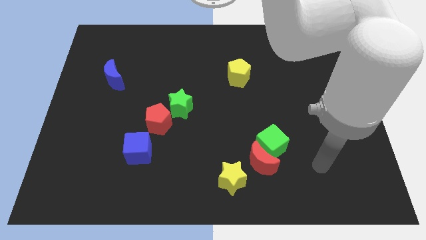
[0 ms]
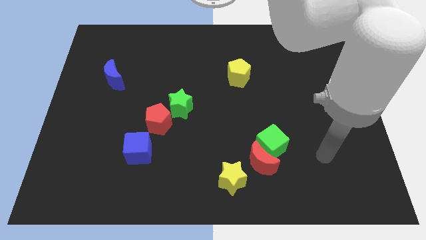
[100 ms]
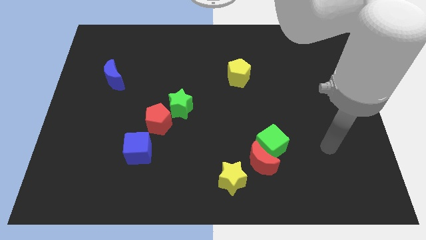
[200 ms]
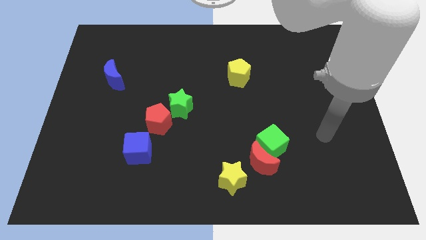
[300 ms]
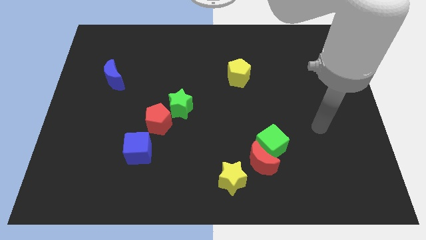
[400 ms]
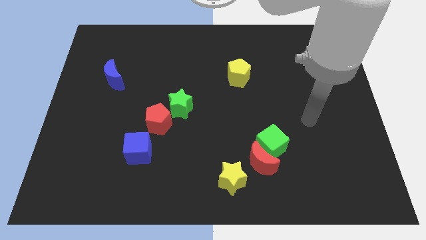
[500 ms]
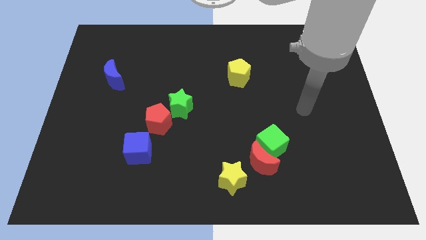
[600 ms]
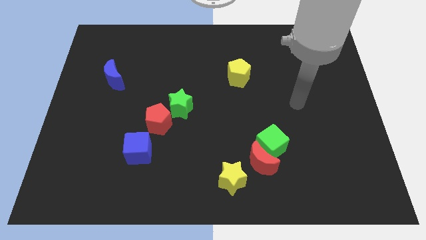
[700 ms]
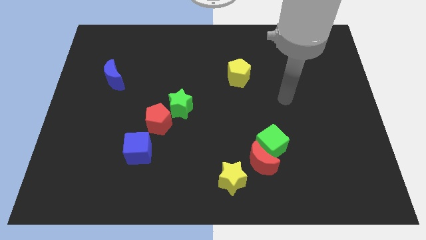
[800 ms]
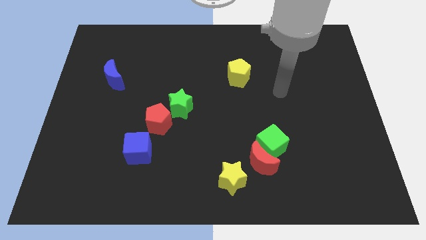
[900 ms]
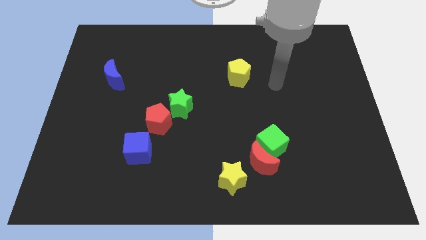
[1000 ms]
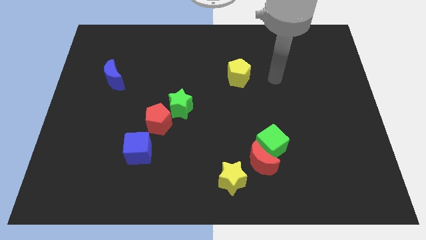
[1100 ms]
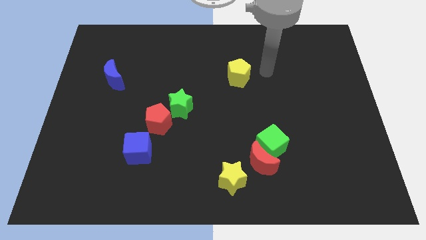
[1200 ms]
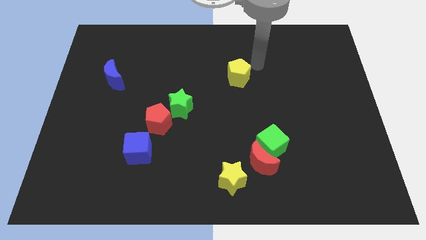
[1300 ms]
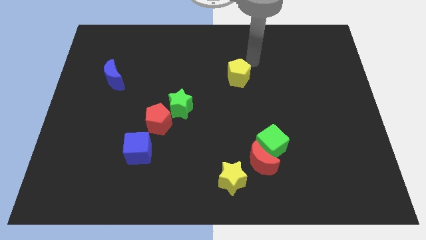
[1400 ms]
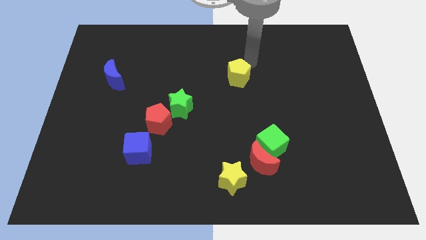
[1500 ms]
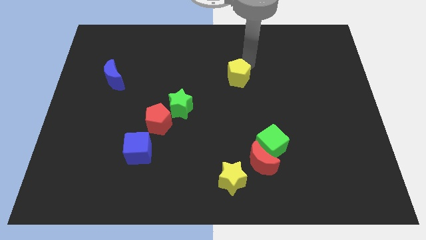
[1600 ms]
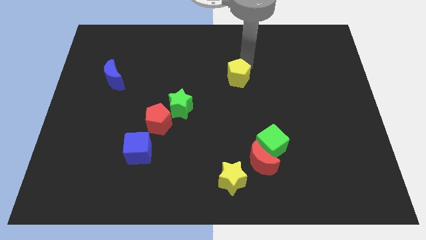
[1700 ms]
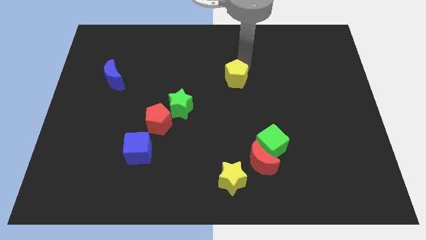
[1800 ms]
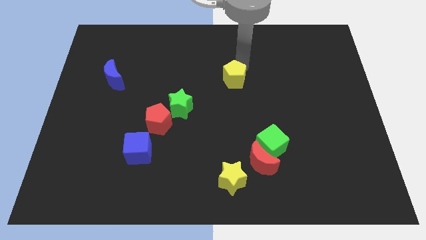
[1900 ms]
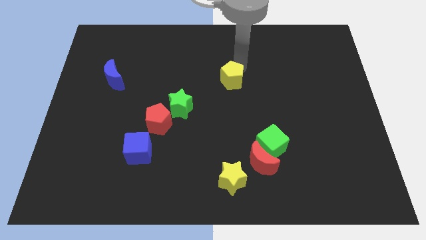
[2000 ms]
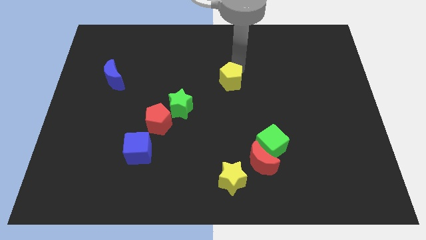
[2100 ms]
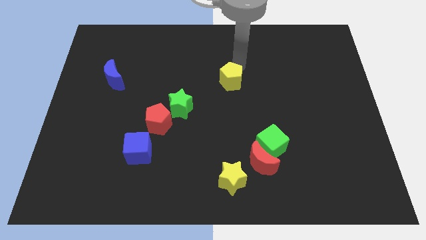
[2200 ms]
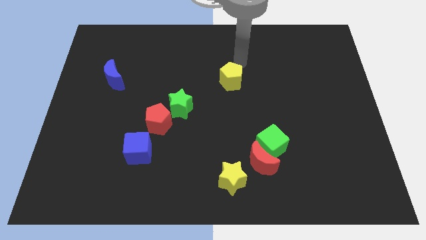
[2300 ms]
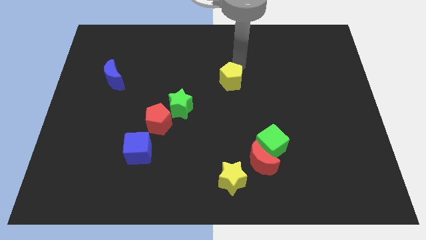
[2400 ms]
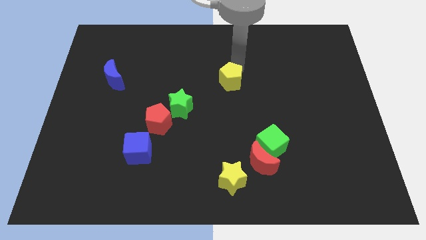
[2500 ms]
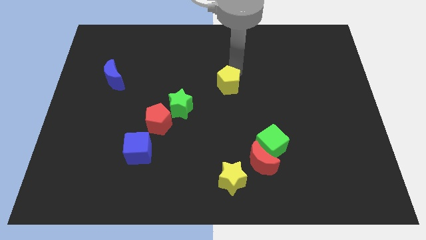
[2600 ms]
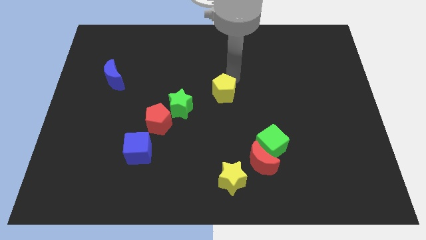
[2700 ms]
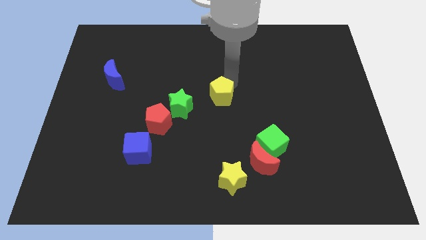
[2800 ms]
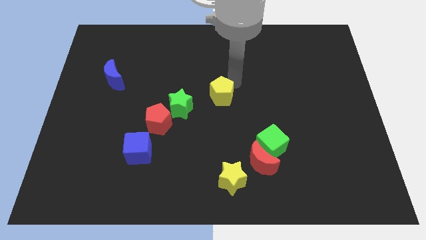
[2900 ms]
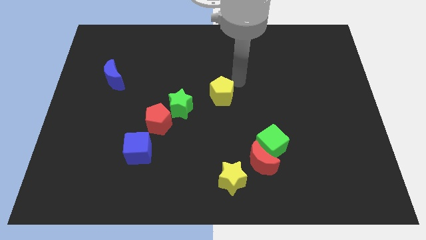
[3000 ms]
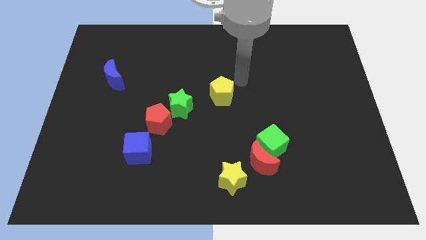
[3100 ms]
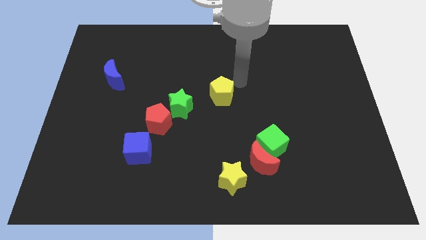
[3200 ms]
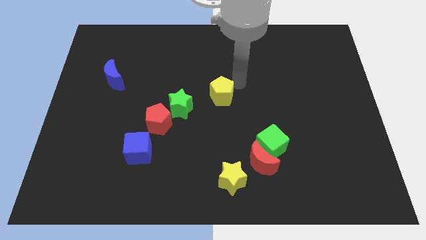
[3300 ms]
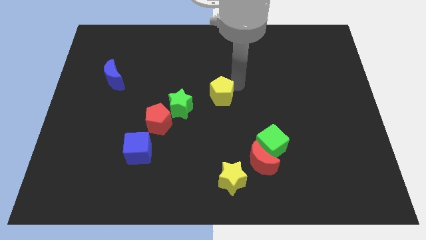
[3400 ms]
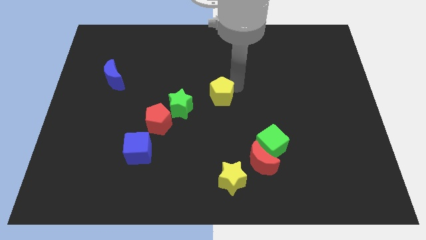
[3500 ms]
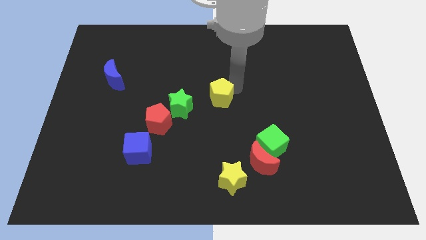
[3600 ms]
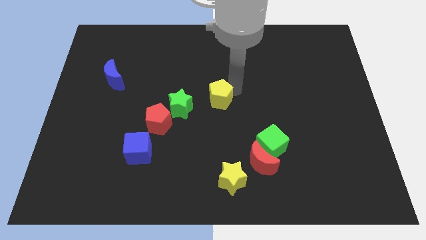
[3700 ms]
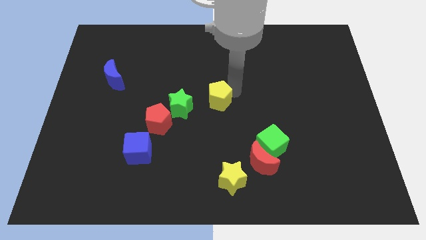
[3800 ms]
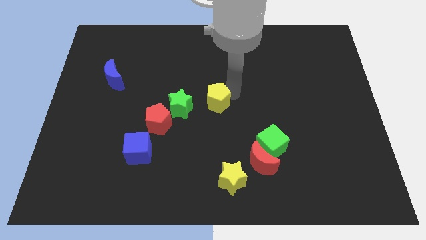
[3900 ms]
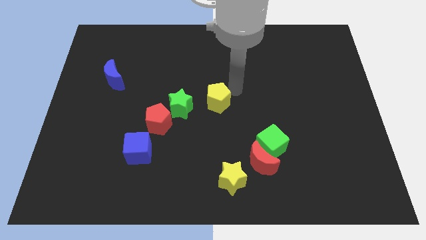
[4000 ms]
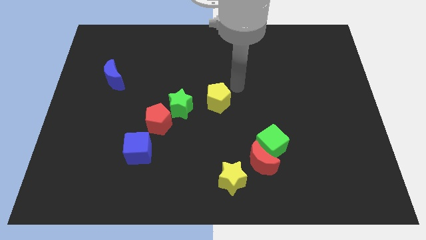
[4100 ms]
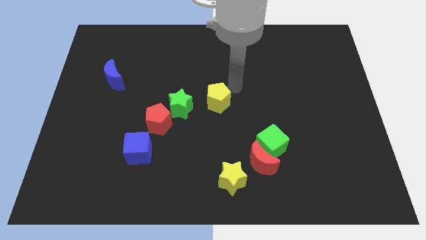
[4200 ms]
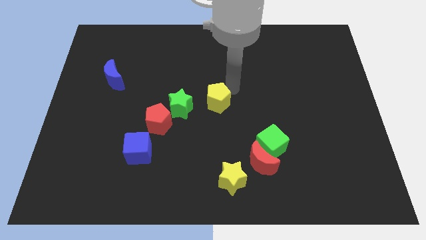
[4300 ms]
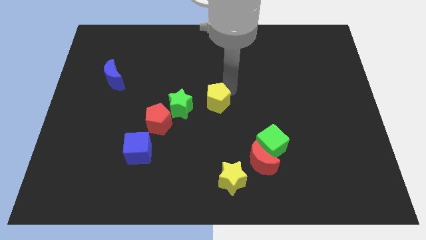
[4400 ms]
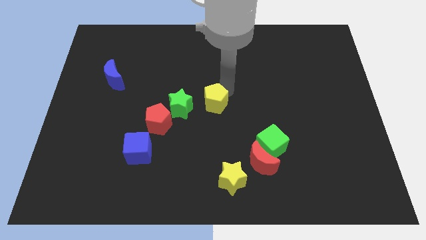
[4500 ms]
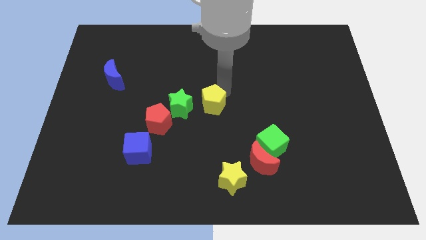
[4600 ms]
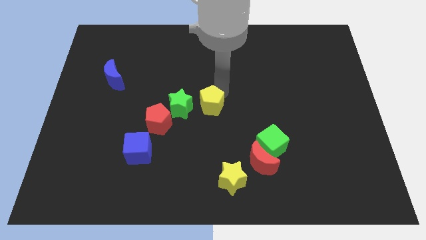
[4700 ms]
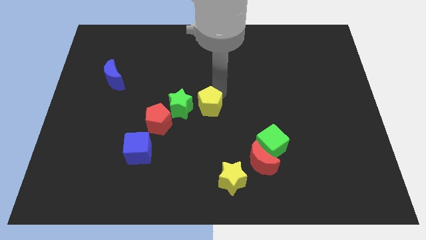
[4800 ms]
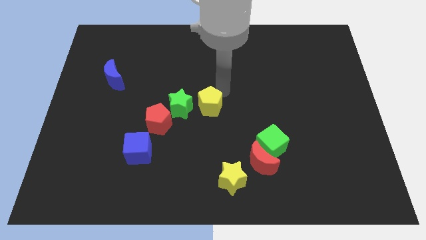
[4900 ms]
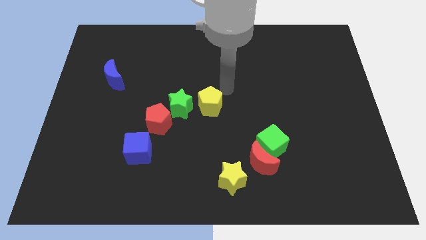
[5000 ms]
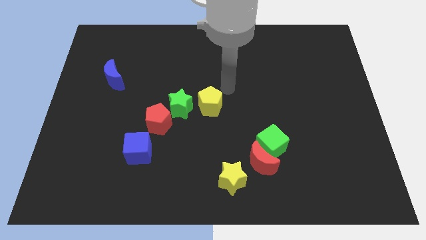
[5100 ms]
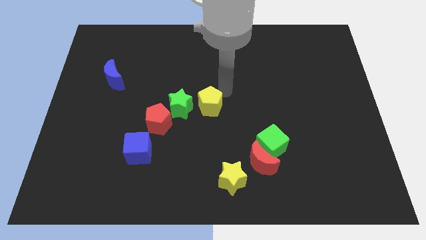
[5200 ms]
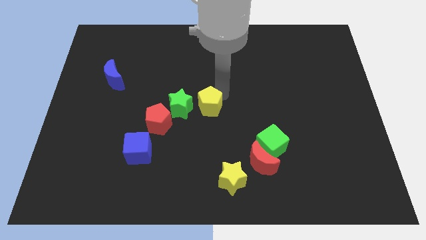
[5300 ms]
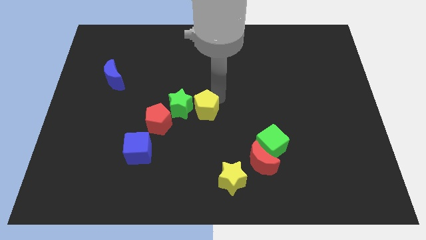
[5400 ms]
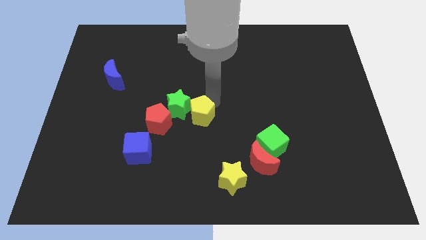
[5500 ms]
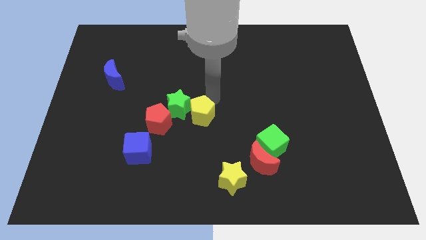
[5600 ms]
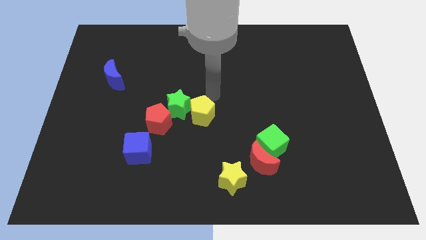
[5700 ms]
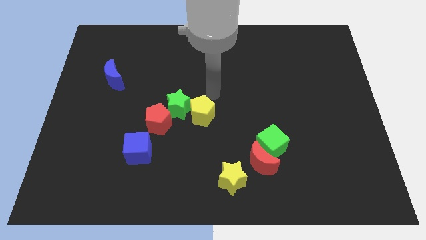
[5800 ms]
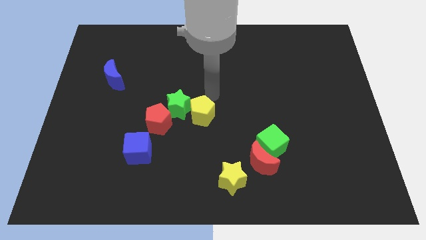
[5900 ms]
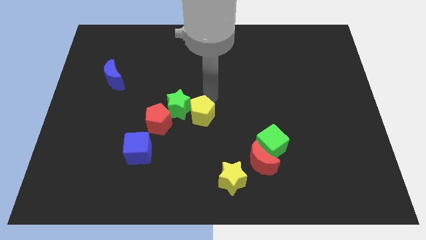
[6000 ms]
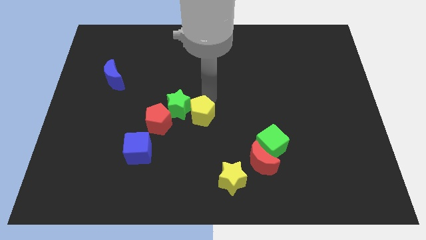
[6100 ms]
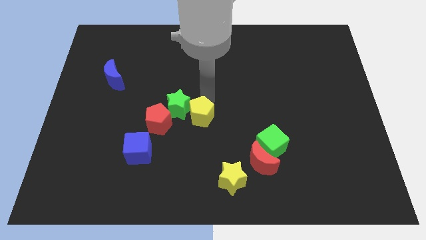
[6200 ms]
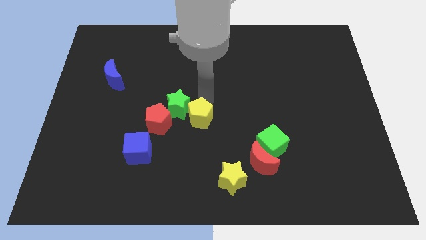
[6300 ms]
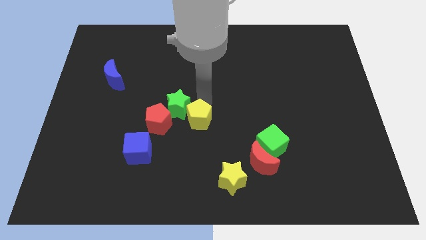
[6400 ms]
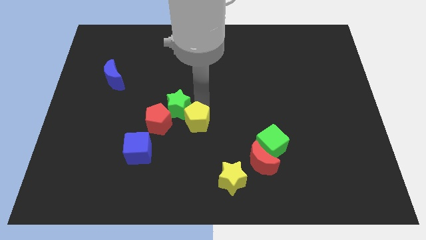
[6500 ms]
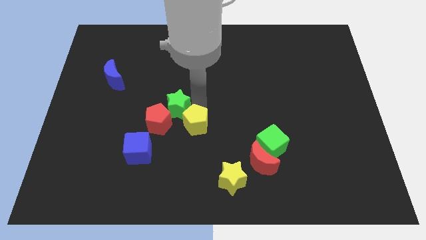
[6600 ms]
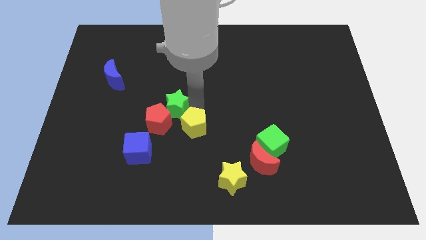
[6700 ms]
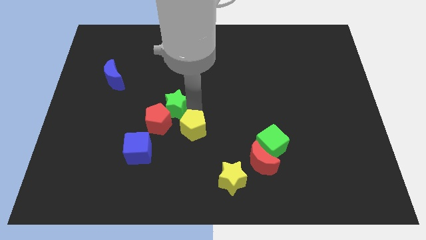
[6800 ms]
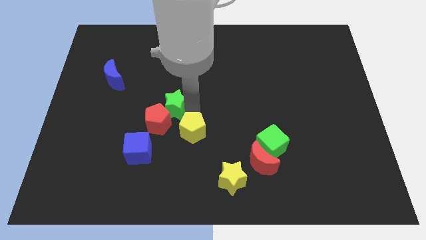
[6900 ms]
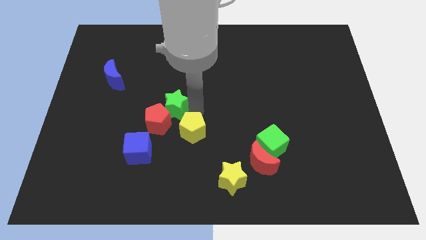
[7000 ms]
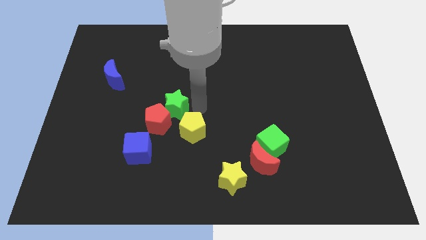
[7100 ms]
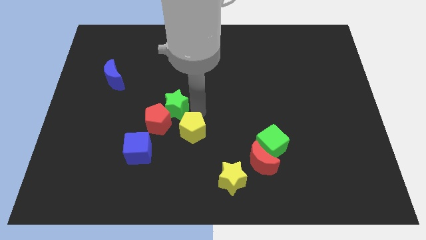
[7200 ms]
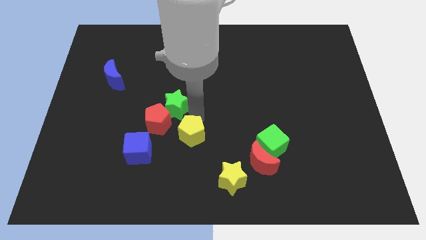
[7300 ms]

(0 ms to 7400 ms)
slide the yellow pentagon just right of the blue cube

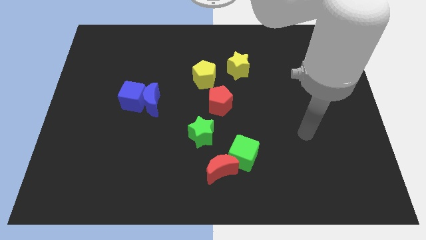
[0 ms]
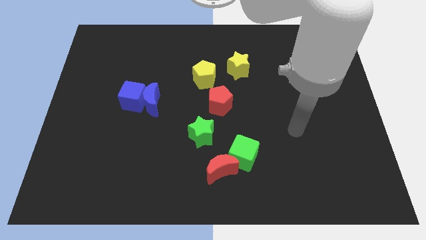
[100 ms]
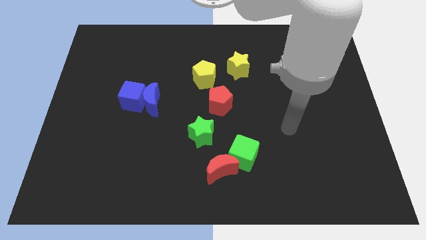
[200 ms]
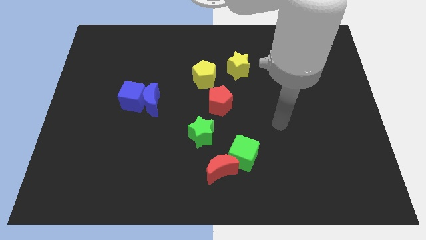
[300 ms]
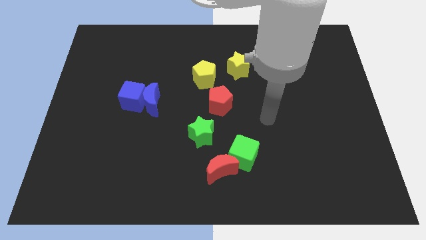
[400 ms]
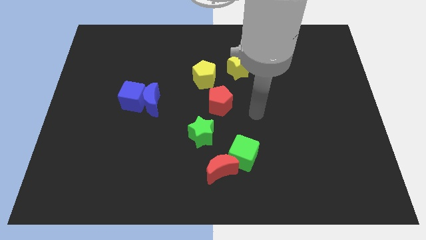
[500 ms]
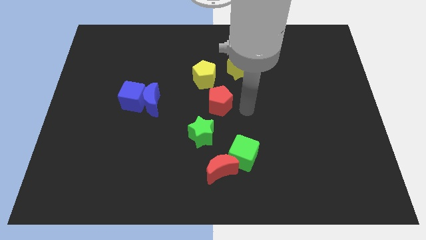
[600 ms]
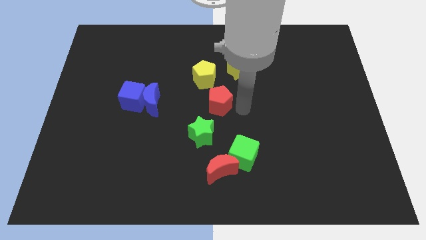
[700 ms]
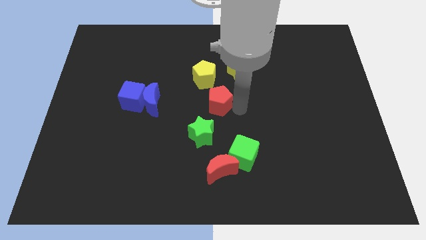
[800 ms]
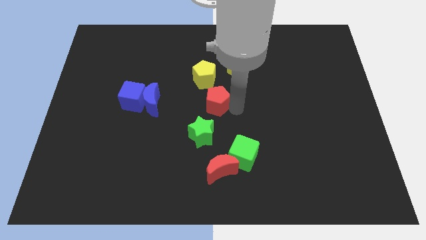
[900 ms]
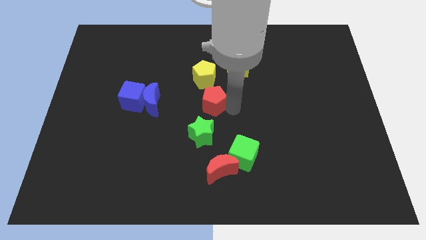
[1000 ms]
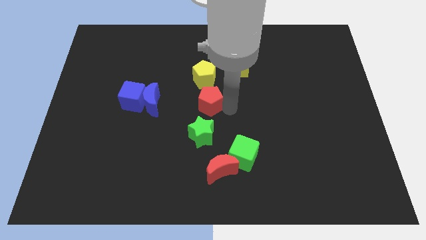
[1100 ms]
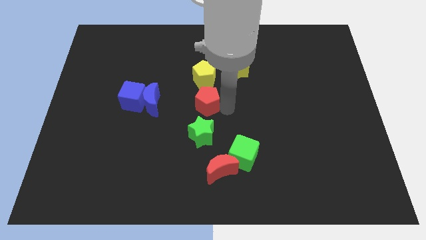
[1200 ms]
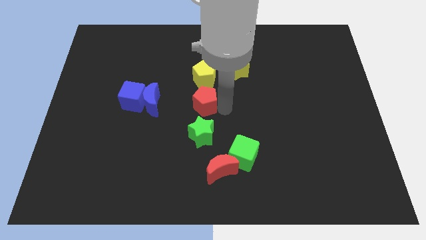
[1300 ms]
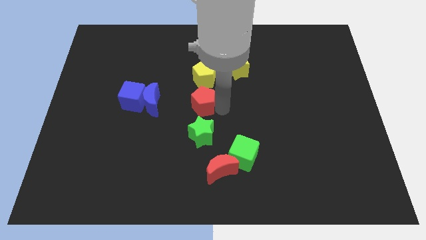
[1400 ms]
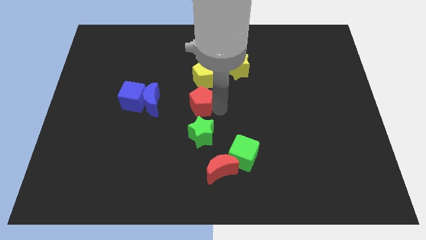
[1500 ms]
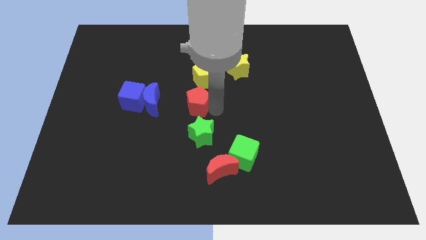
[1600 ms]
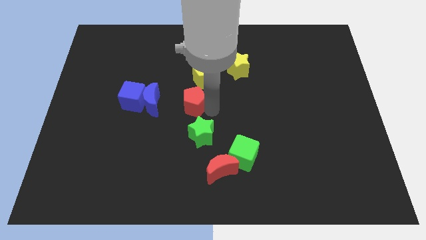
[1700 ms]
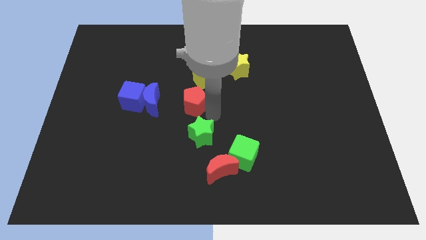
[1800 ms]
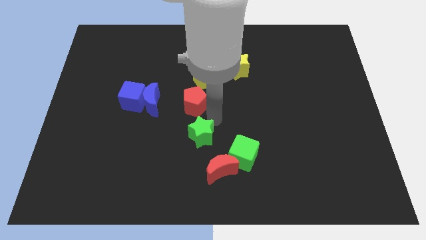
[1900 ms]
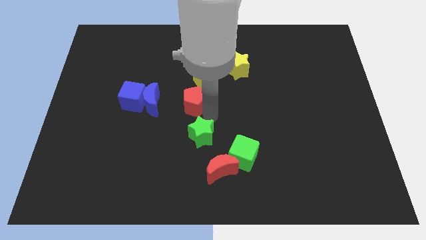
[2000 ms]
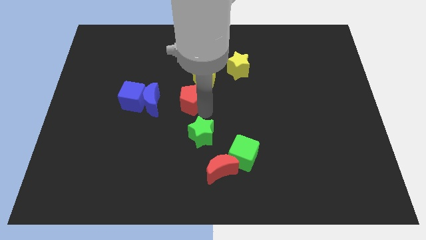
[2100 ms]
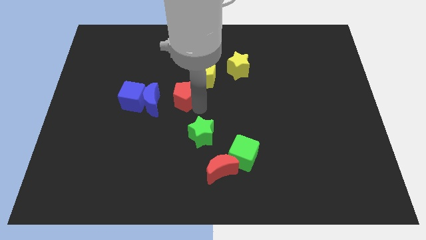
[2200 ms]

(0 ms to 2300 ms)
put the red pentagon to the top right of the blue moon
